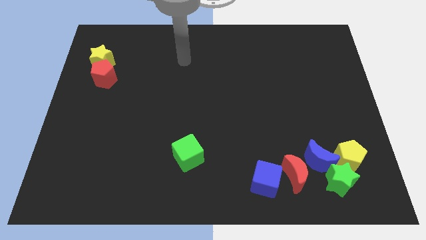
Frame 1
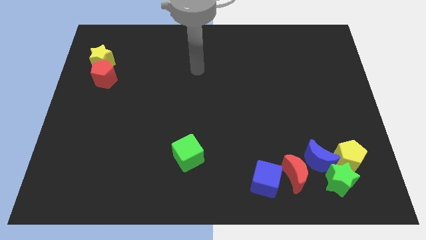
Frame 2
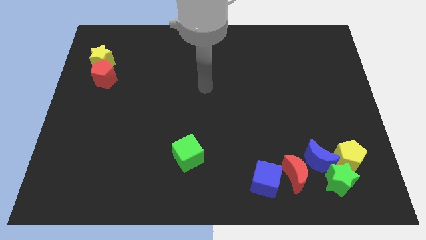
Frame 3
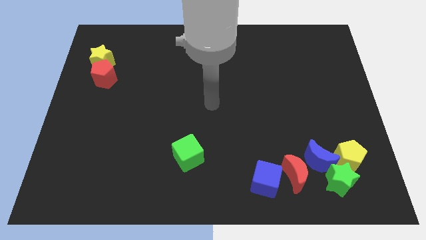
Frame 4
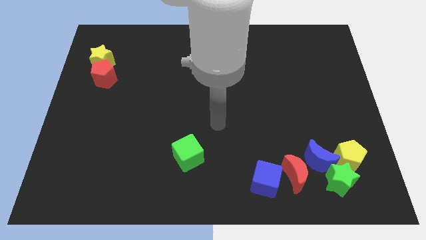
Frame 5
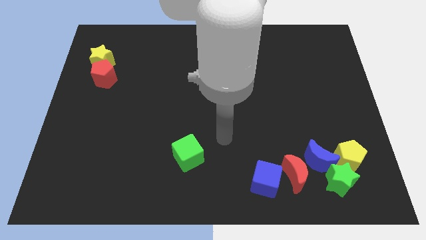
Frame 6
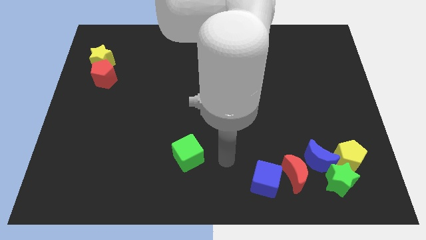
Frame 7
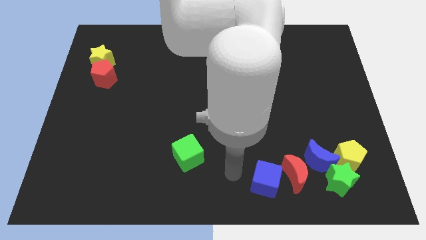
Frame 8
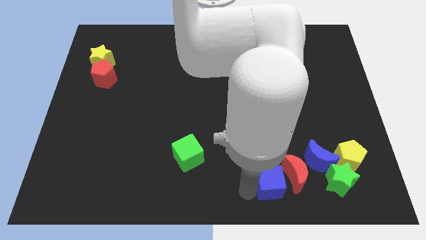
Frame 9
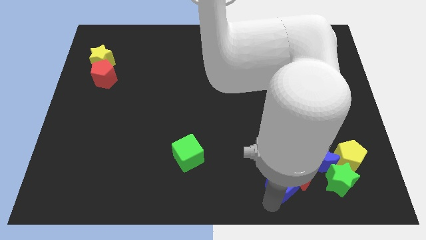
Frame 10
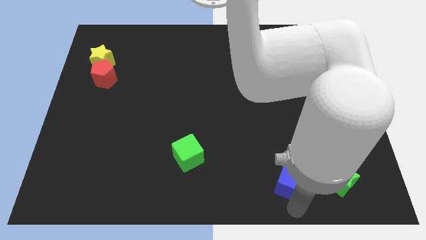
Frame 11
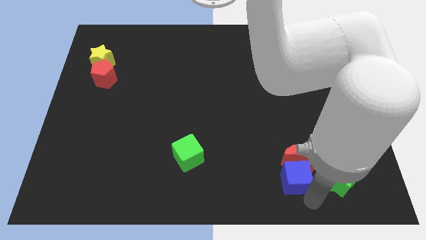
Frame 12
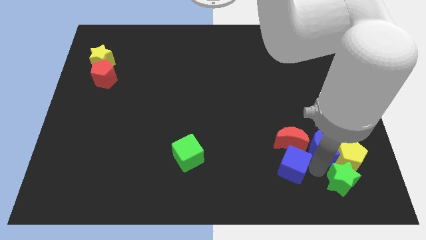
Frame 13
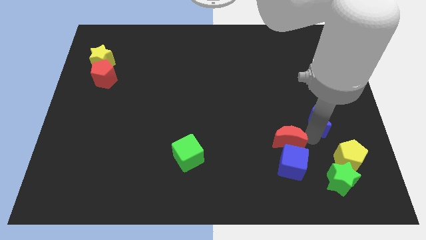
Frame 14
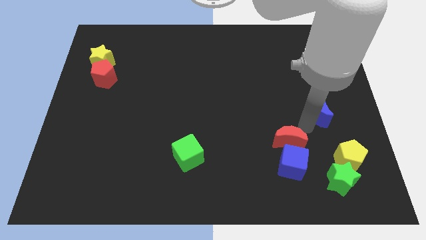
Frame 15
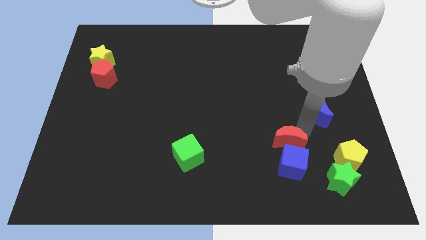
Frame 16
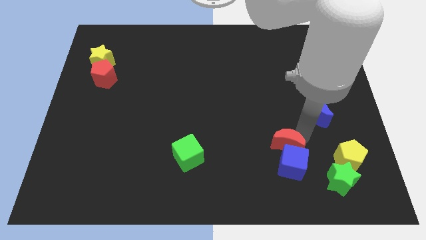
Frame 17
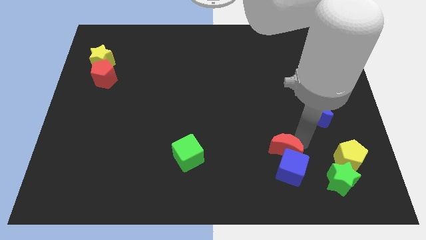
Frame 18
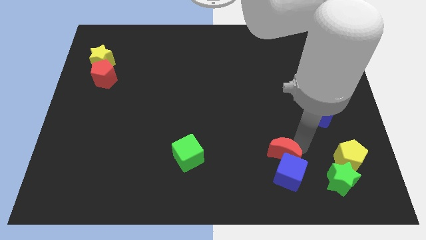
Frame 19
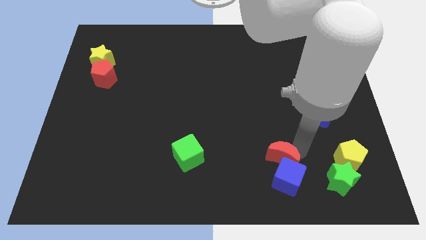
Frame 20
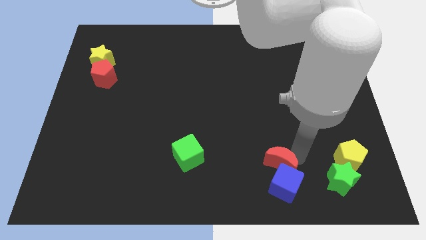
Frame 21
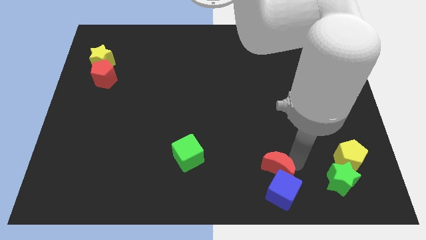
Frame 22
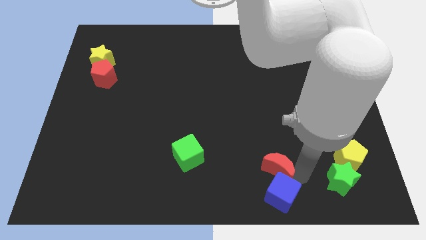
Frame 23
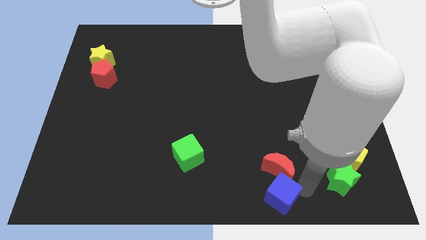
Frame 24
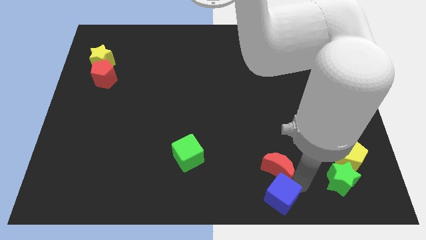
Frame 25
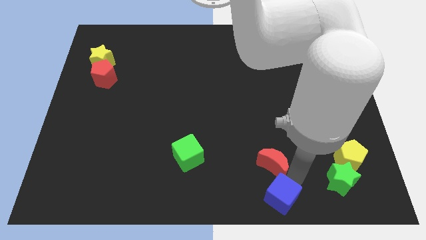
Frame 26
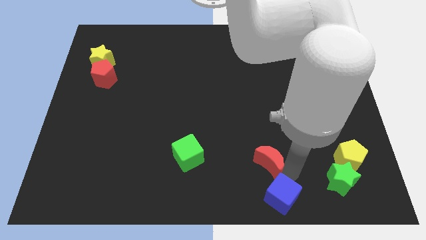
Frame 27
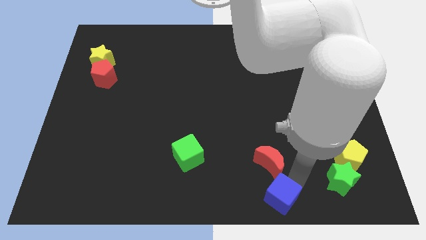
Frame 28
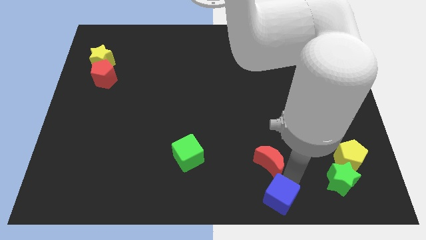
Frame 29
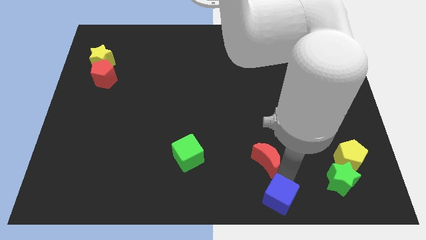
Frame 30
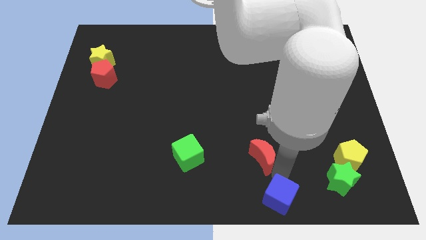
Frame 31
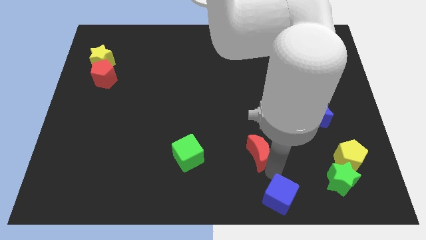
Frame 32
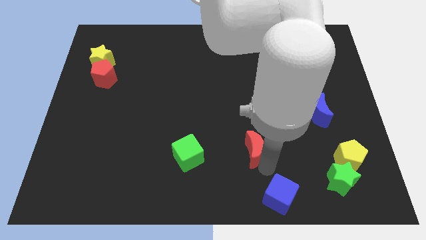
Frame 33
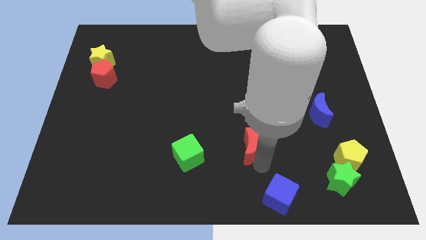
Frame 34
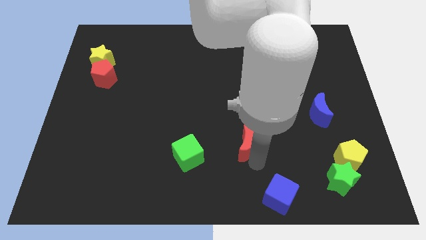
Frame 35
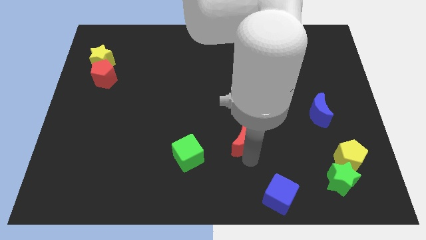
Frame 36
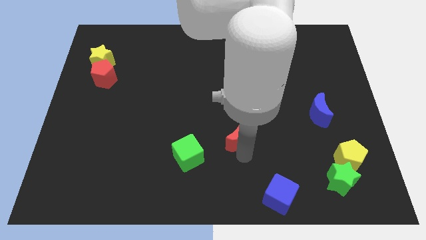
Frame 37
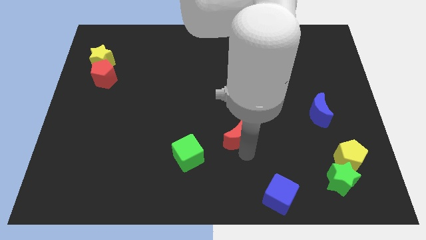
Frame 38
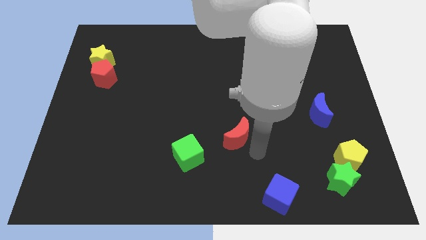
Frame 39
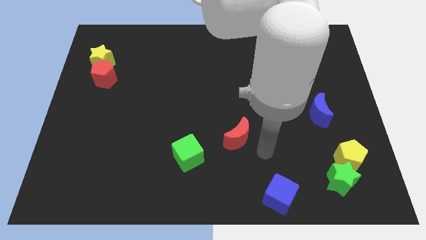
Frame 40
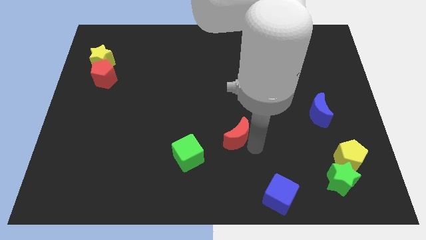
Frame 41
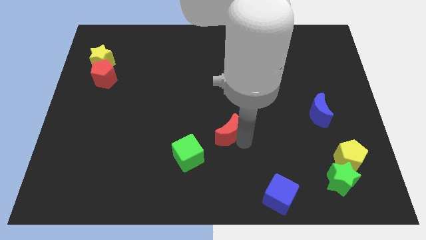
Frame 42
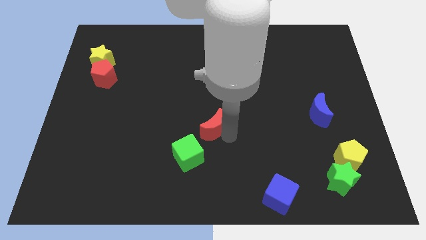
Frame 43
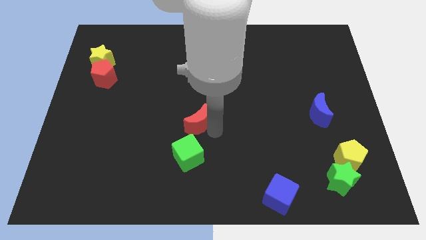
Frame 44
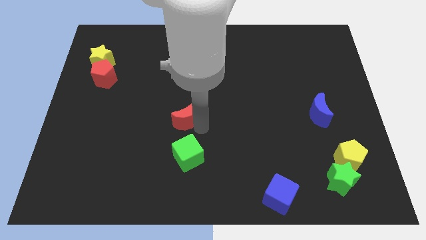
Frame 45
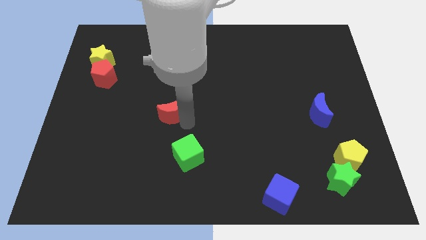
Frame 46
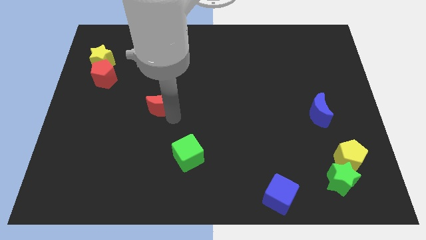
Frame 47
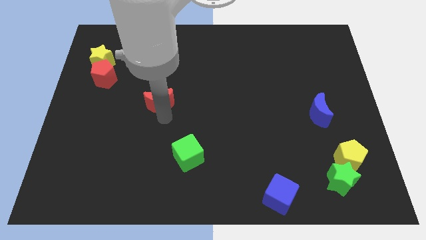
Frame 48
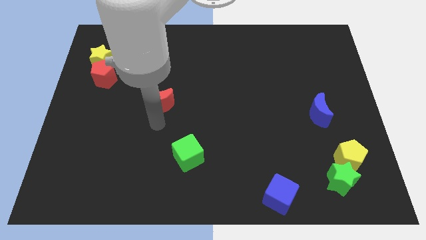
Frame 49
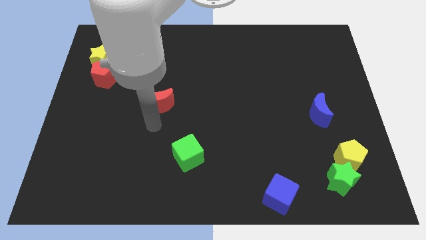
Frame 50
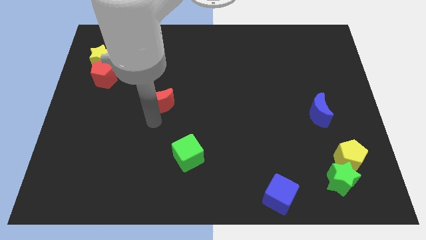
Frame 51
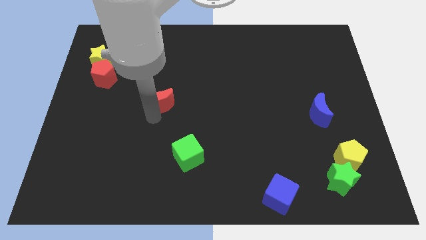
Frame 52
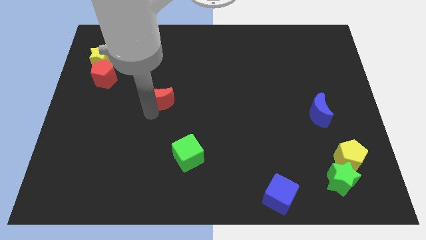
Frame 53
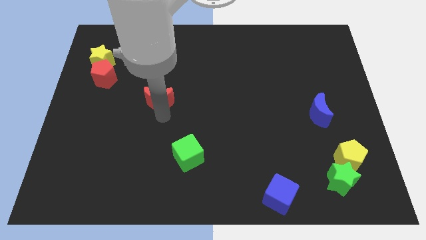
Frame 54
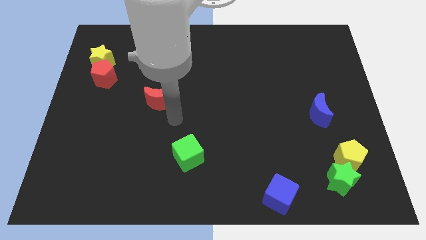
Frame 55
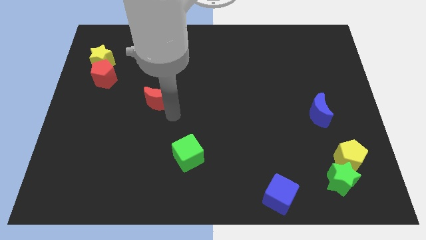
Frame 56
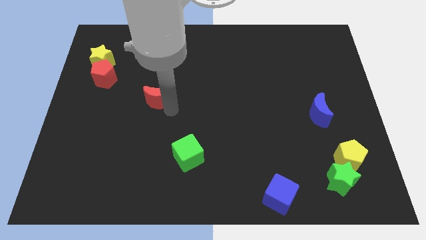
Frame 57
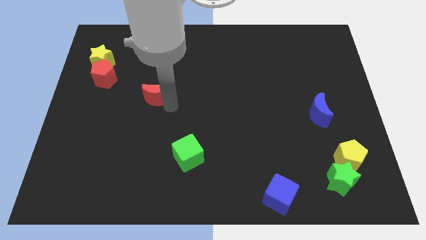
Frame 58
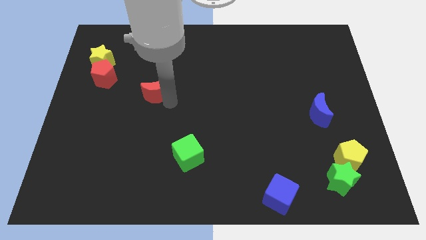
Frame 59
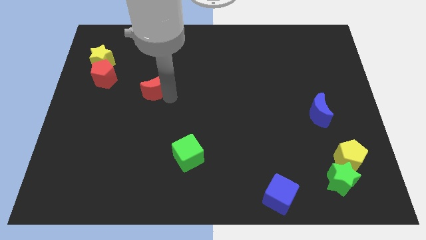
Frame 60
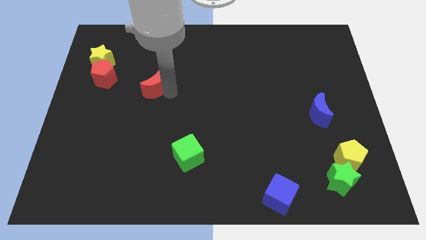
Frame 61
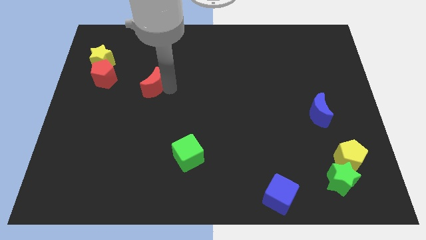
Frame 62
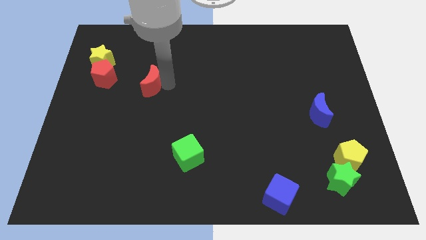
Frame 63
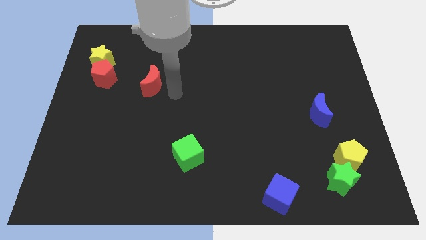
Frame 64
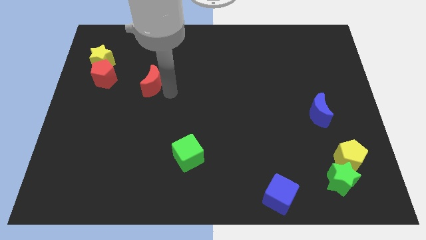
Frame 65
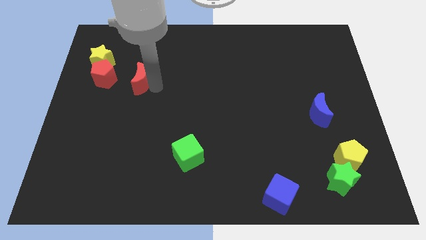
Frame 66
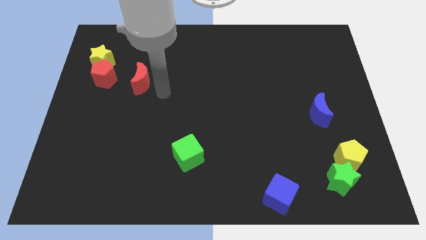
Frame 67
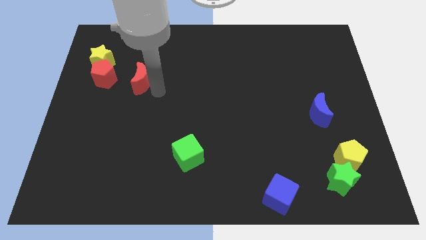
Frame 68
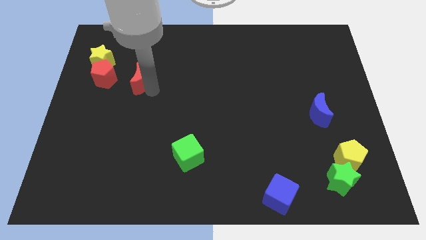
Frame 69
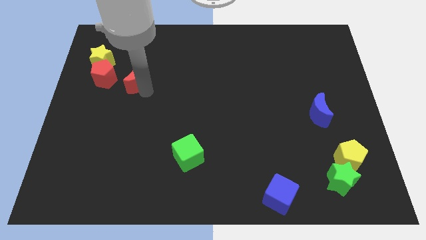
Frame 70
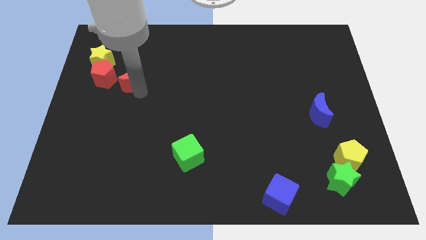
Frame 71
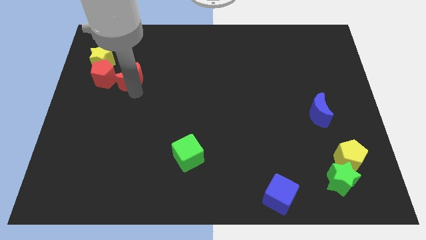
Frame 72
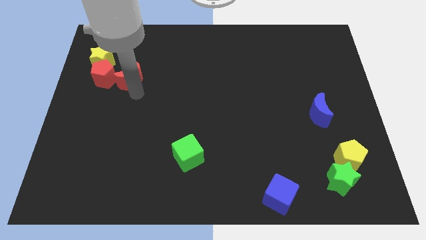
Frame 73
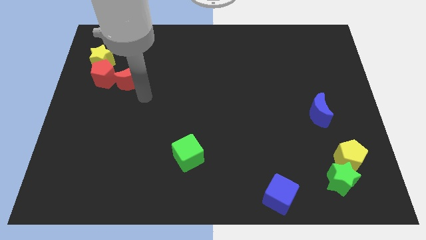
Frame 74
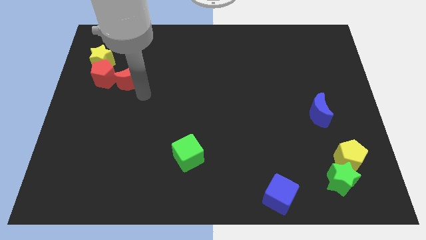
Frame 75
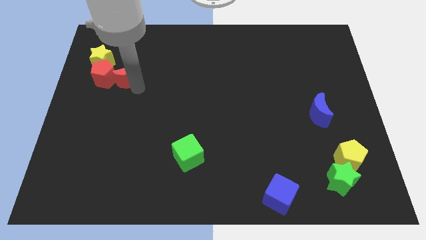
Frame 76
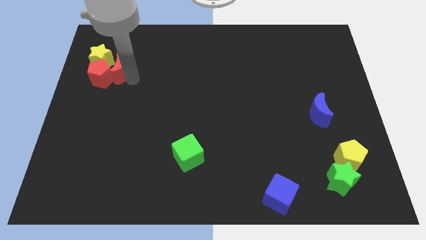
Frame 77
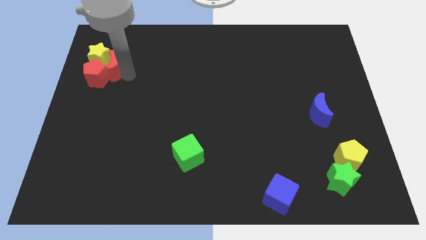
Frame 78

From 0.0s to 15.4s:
move the red moon to the yellow star
